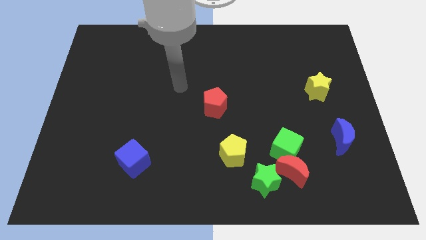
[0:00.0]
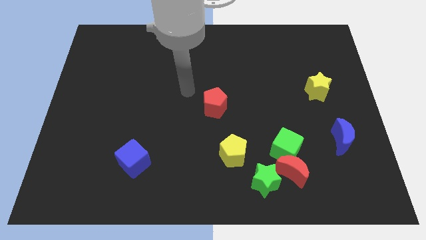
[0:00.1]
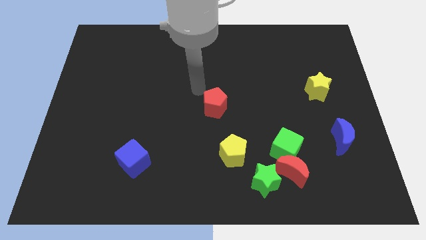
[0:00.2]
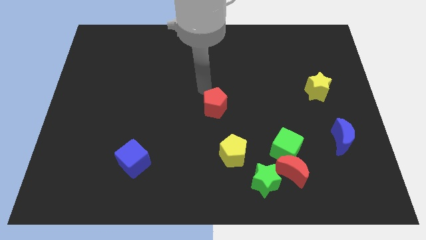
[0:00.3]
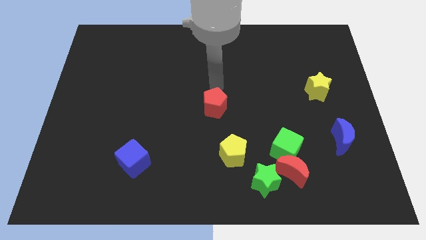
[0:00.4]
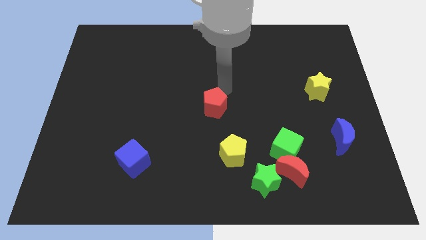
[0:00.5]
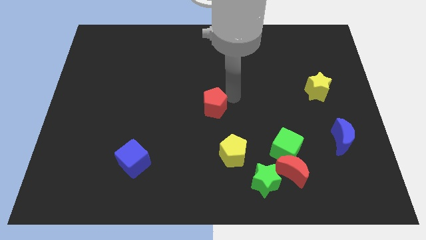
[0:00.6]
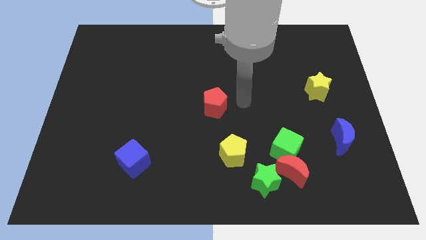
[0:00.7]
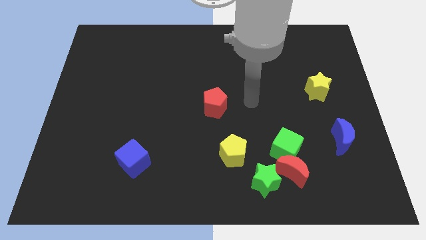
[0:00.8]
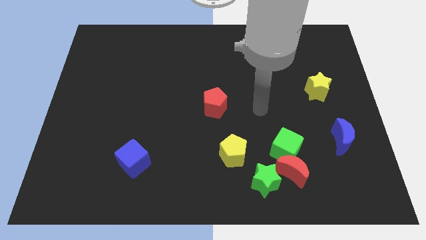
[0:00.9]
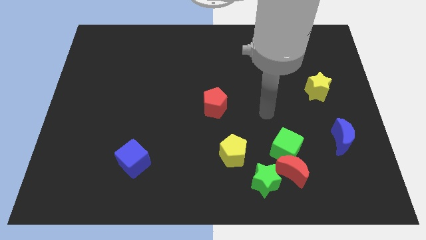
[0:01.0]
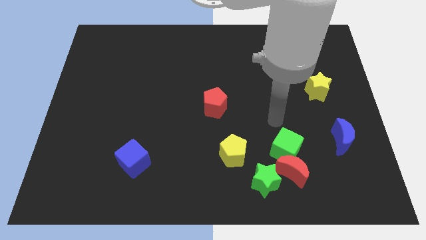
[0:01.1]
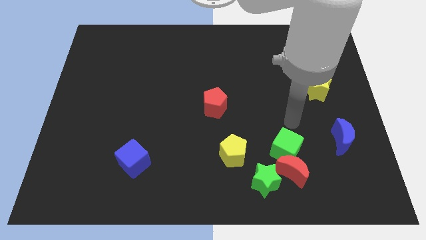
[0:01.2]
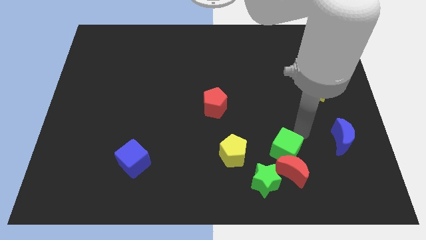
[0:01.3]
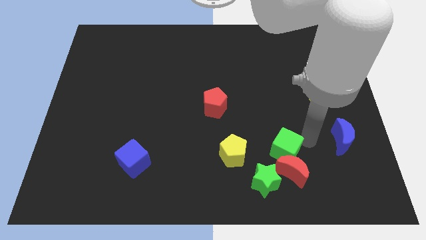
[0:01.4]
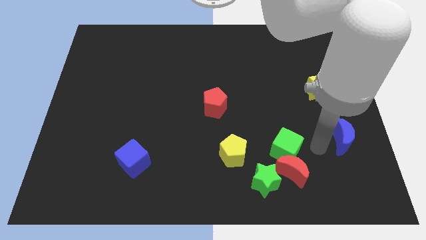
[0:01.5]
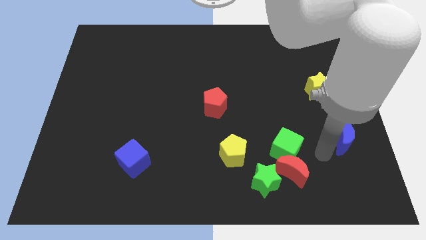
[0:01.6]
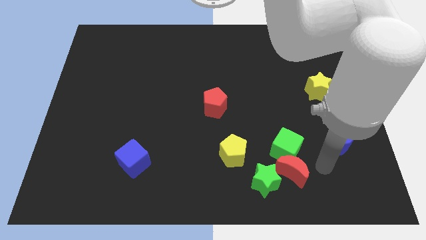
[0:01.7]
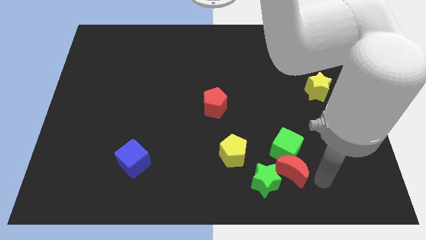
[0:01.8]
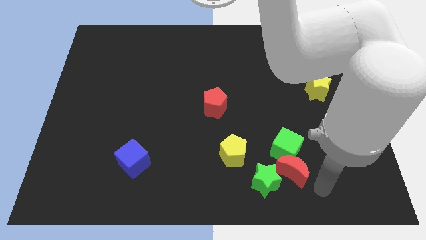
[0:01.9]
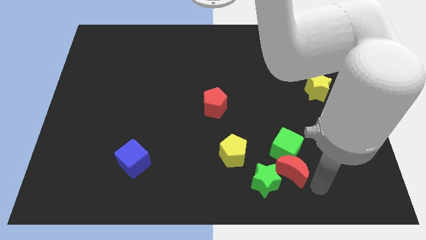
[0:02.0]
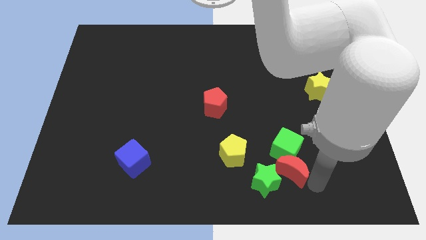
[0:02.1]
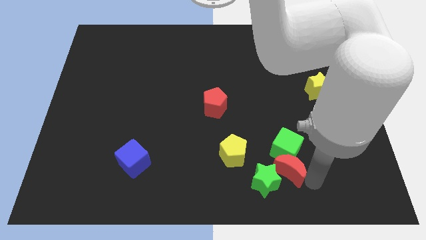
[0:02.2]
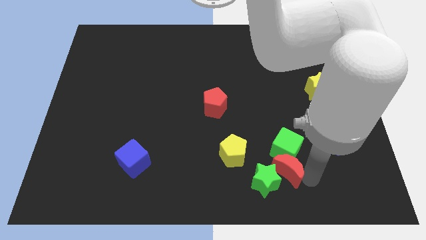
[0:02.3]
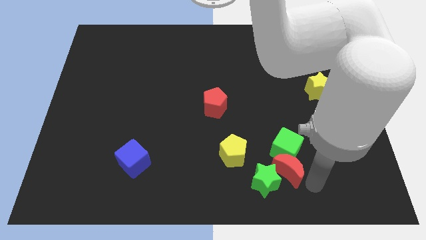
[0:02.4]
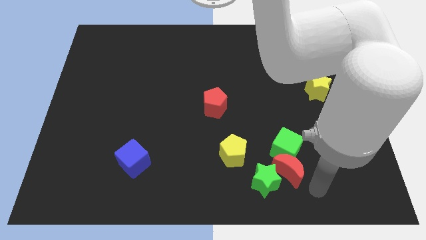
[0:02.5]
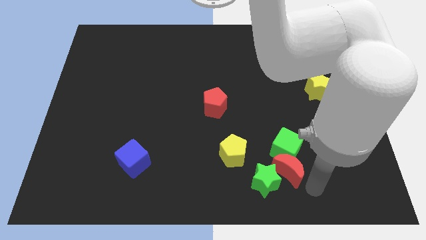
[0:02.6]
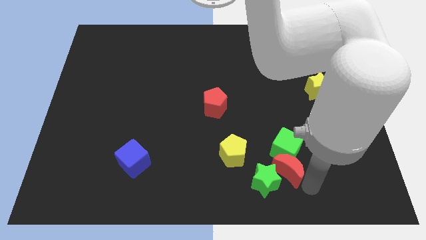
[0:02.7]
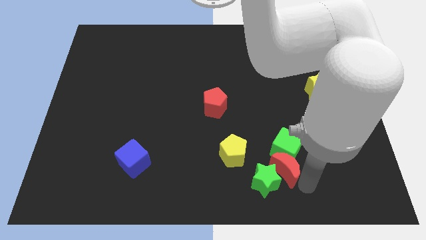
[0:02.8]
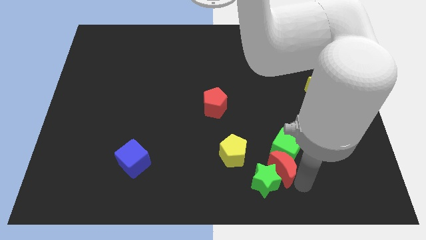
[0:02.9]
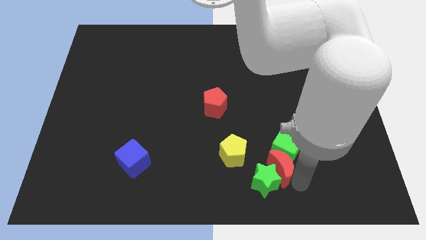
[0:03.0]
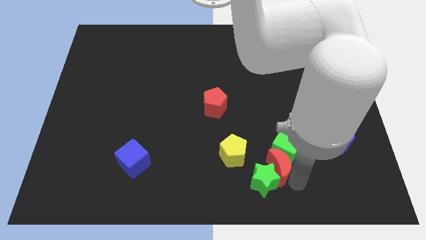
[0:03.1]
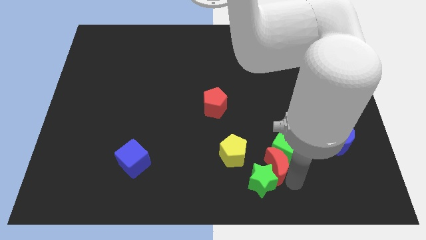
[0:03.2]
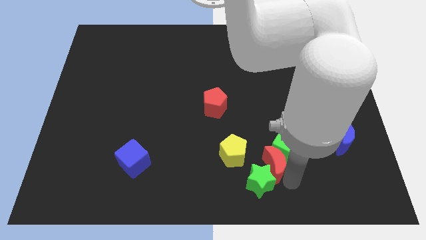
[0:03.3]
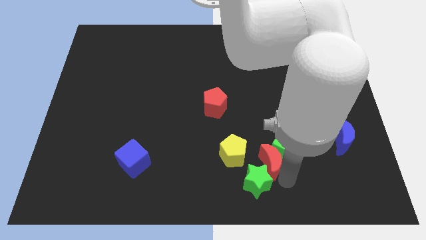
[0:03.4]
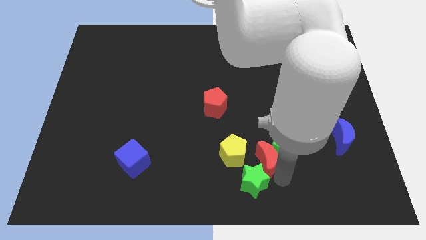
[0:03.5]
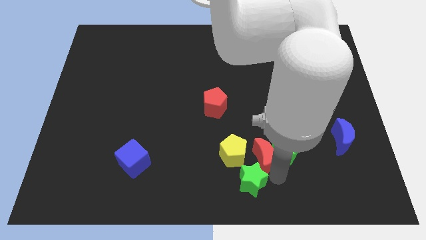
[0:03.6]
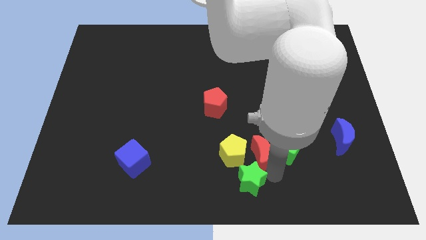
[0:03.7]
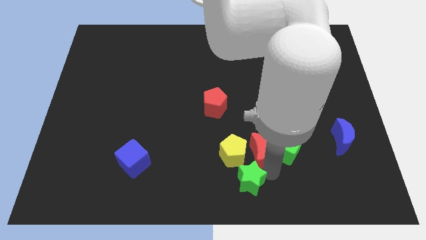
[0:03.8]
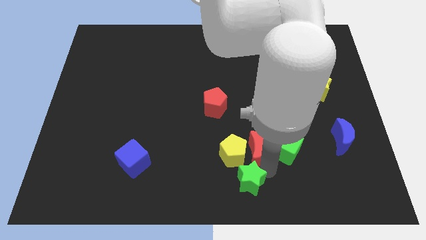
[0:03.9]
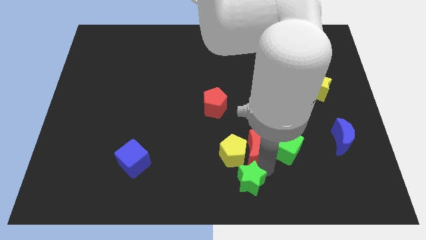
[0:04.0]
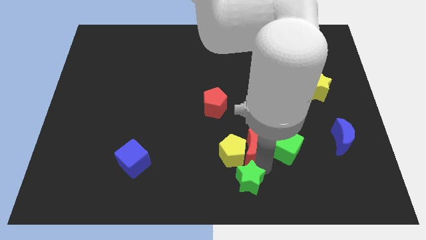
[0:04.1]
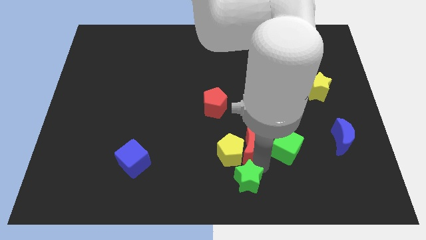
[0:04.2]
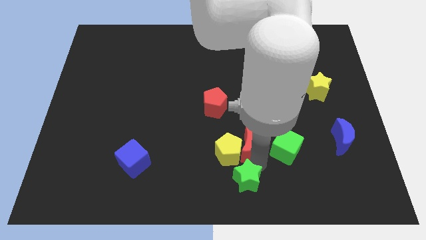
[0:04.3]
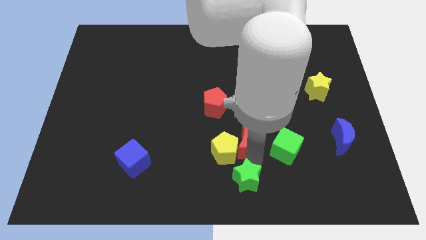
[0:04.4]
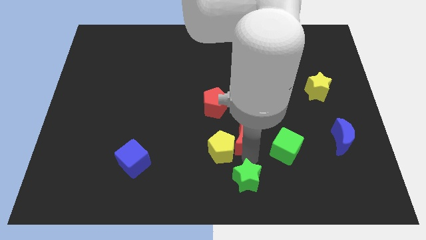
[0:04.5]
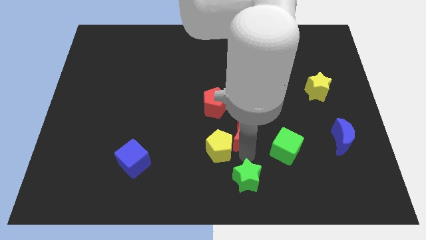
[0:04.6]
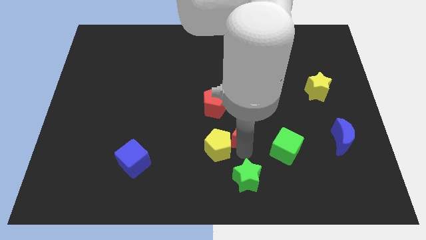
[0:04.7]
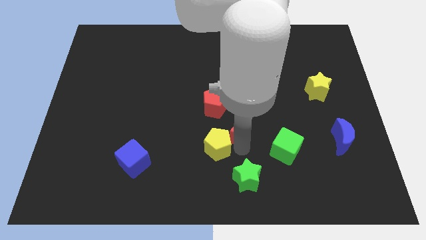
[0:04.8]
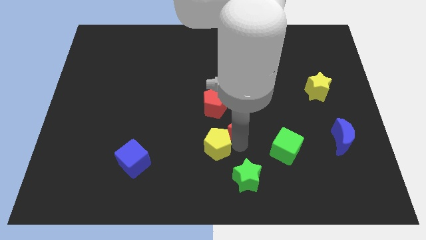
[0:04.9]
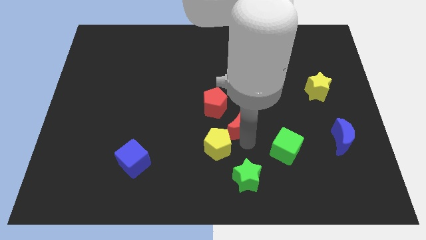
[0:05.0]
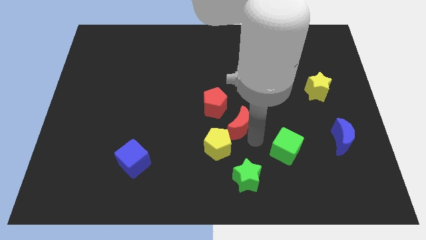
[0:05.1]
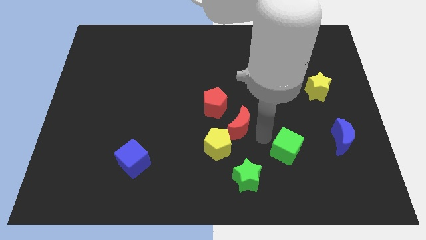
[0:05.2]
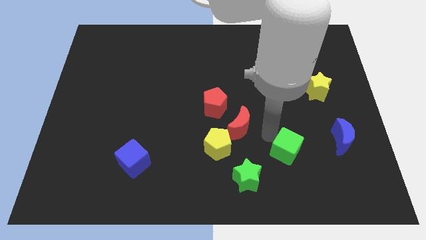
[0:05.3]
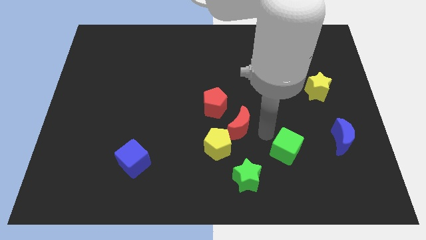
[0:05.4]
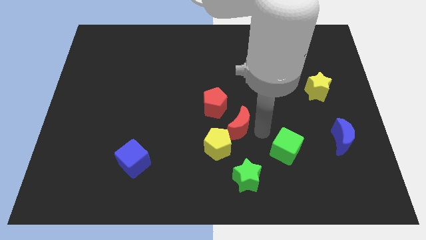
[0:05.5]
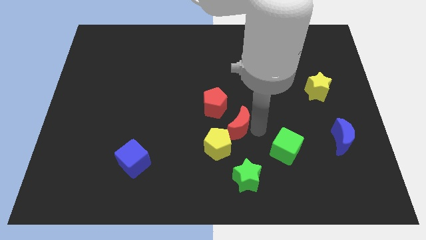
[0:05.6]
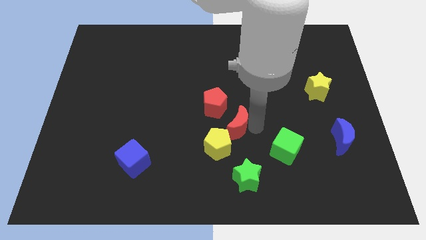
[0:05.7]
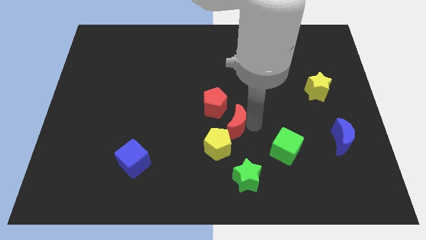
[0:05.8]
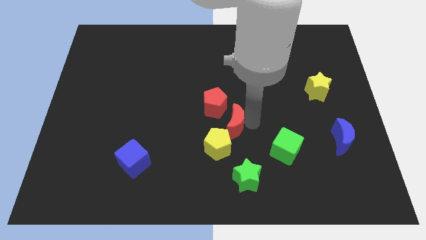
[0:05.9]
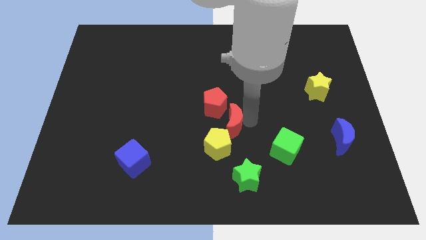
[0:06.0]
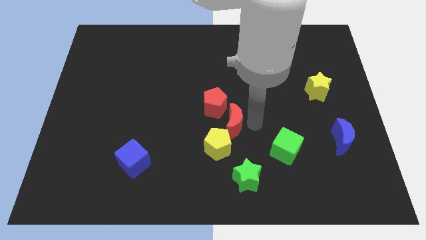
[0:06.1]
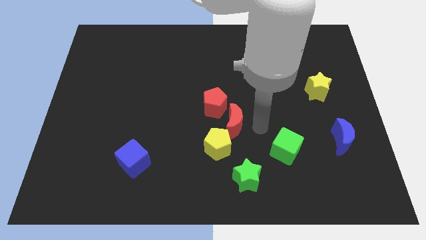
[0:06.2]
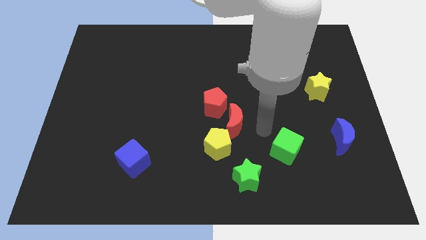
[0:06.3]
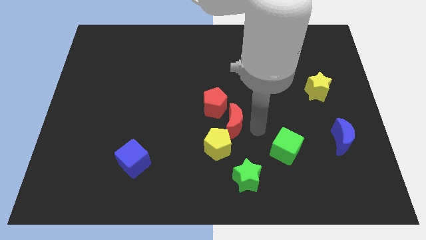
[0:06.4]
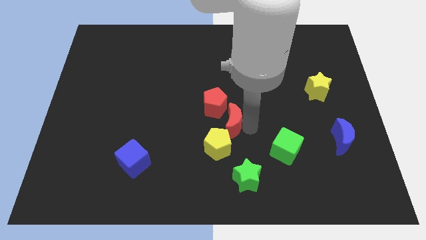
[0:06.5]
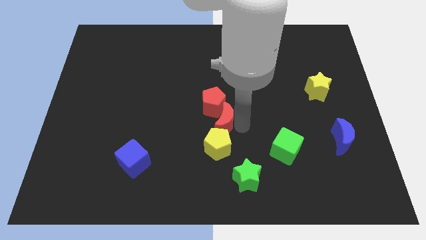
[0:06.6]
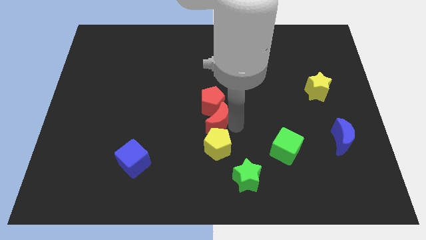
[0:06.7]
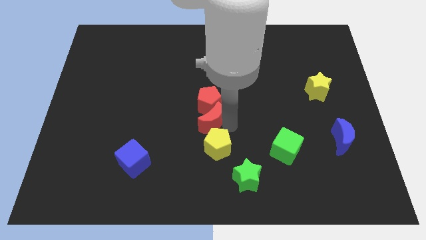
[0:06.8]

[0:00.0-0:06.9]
move the red moon up and left diagonally

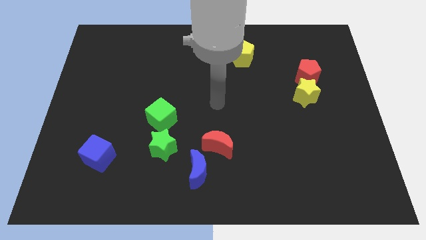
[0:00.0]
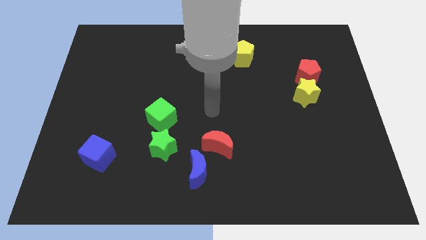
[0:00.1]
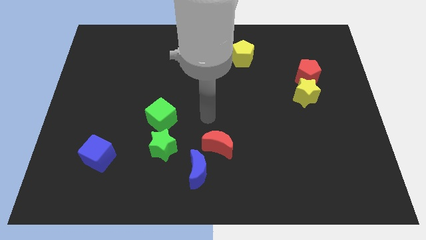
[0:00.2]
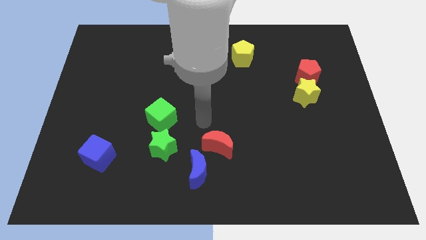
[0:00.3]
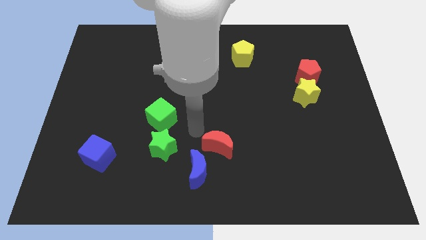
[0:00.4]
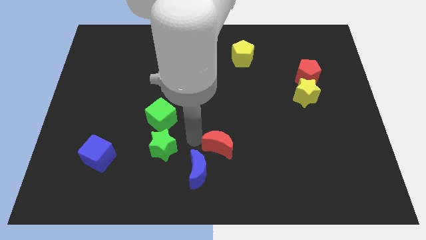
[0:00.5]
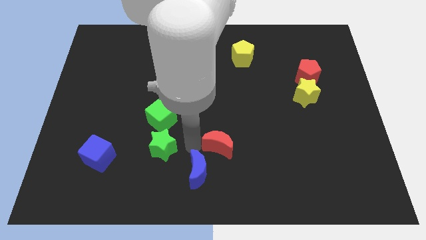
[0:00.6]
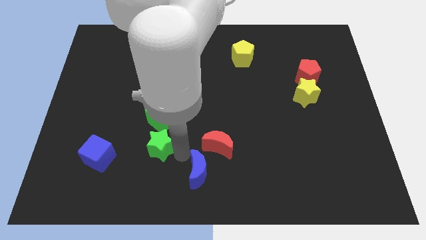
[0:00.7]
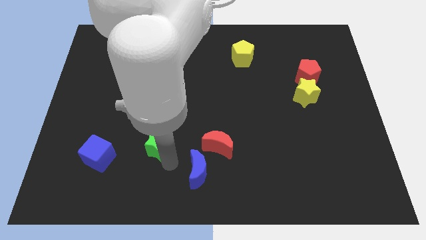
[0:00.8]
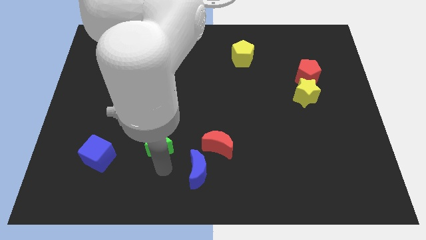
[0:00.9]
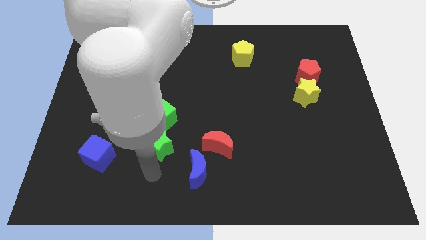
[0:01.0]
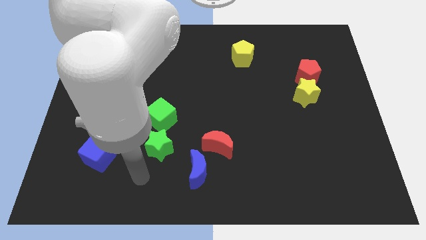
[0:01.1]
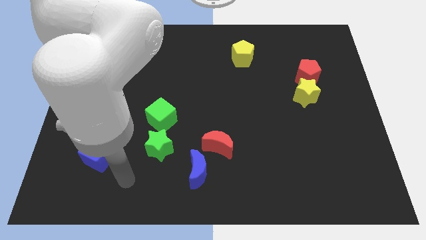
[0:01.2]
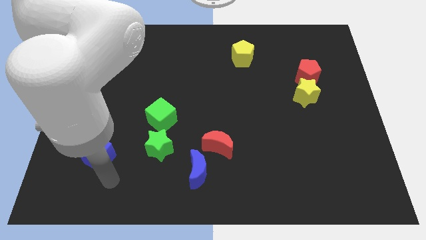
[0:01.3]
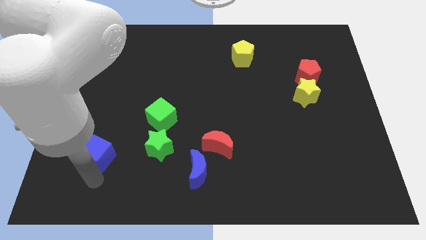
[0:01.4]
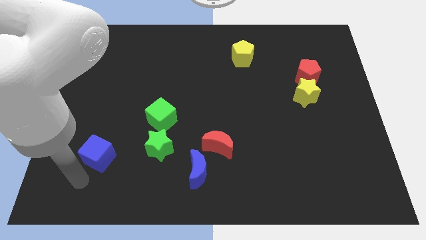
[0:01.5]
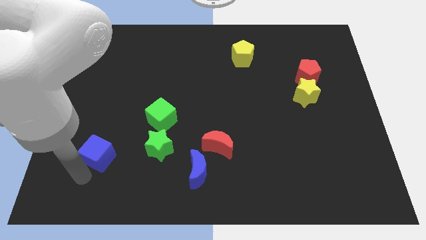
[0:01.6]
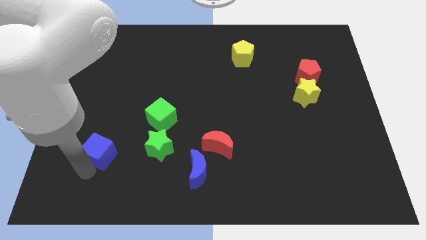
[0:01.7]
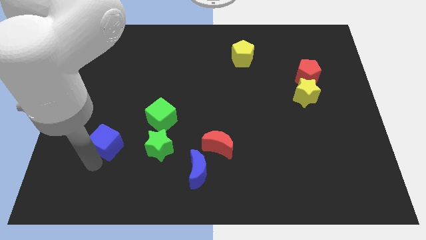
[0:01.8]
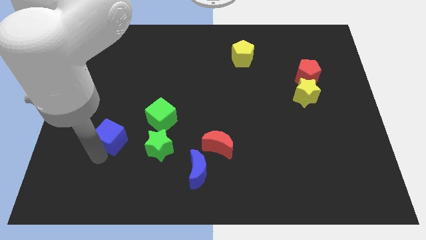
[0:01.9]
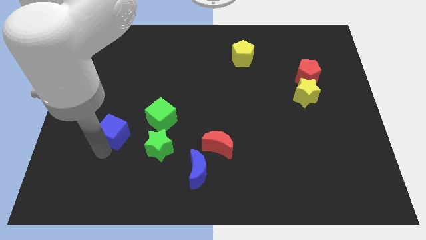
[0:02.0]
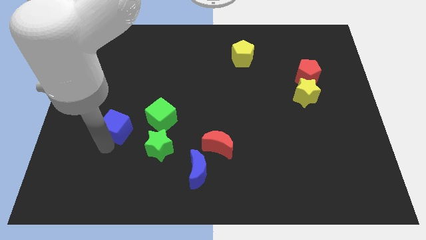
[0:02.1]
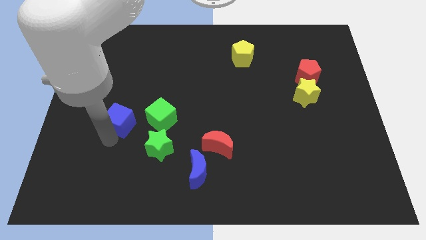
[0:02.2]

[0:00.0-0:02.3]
move the blue cube a little bit upwards and to the right
